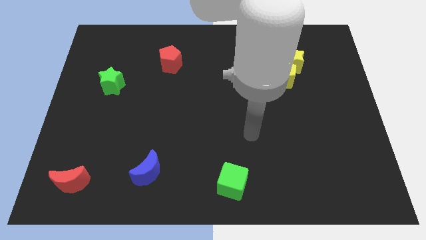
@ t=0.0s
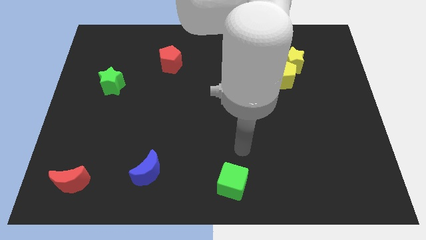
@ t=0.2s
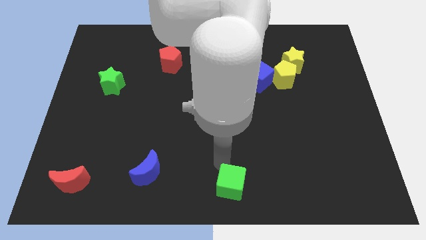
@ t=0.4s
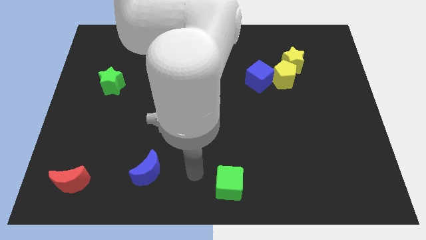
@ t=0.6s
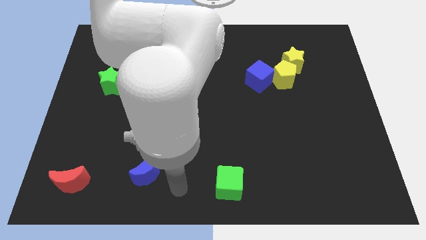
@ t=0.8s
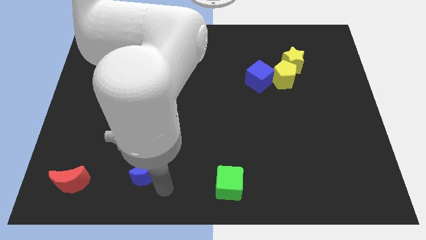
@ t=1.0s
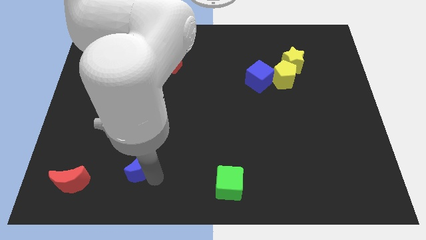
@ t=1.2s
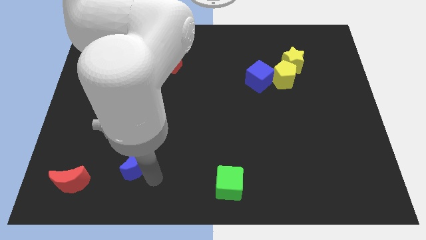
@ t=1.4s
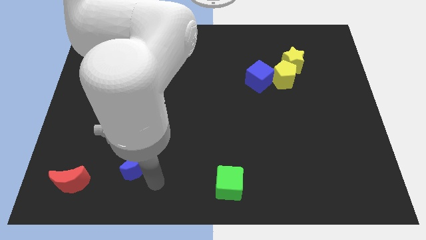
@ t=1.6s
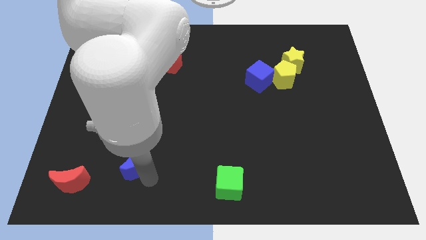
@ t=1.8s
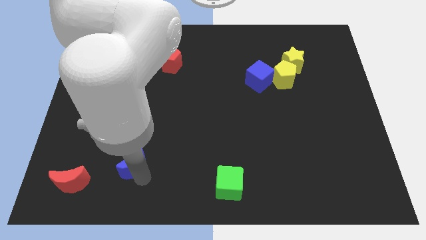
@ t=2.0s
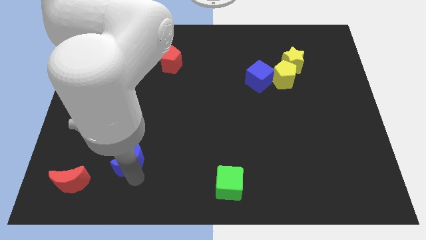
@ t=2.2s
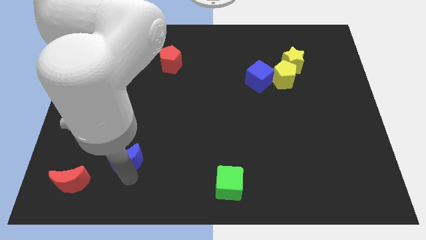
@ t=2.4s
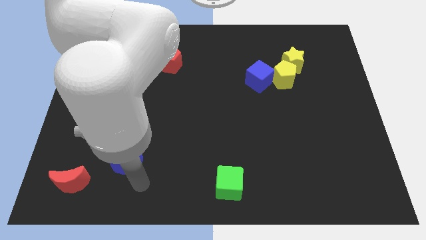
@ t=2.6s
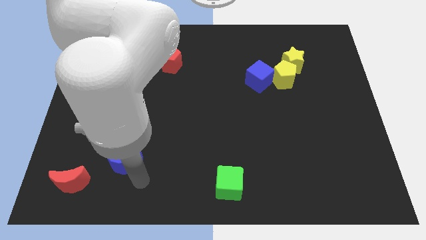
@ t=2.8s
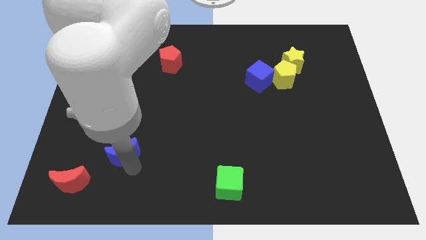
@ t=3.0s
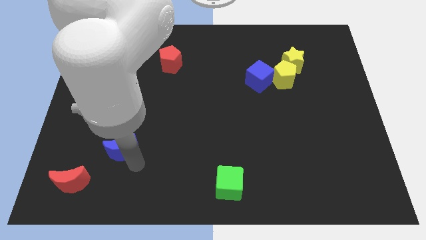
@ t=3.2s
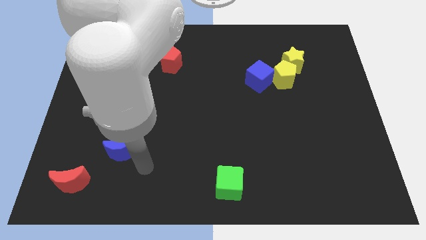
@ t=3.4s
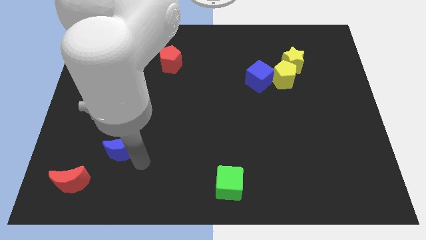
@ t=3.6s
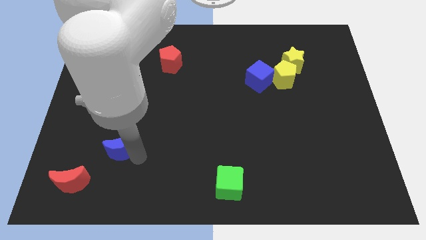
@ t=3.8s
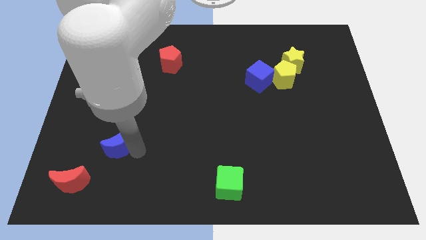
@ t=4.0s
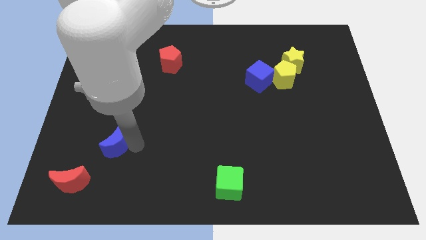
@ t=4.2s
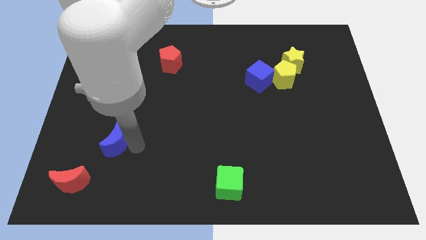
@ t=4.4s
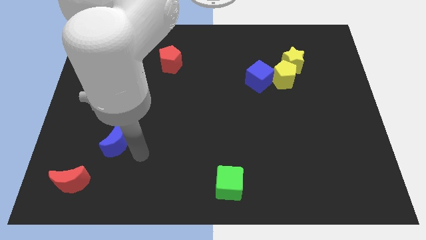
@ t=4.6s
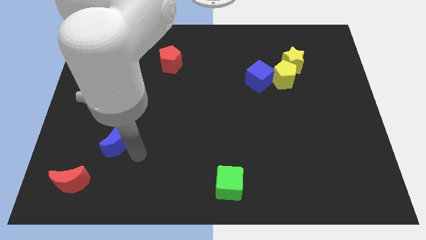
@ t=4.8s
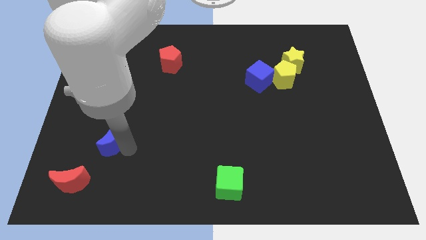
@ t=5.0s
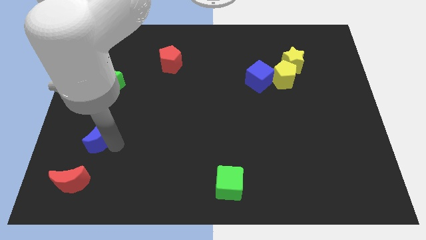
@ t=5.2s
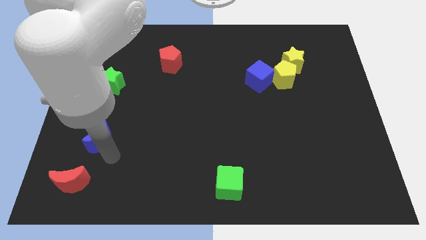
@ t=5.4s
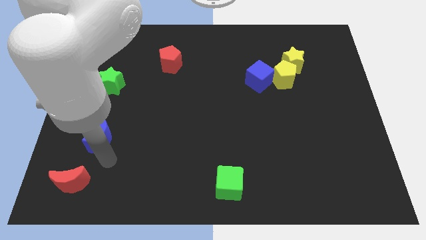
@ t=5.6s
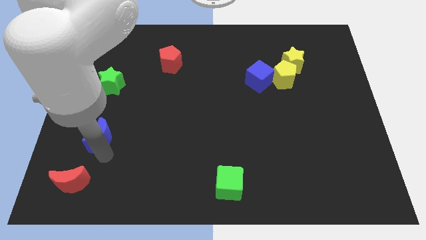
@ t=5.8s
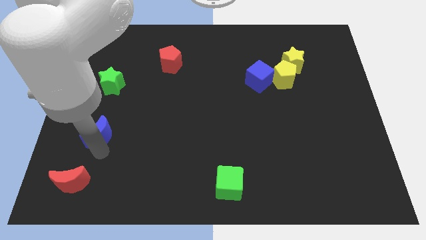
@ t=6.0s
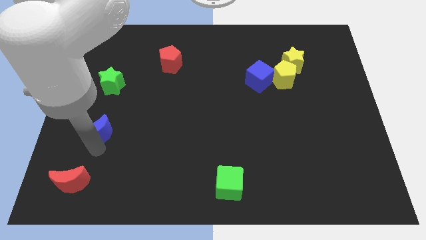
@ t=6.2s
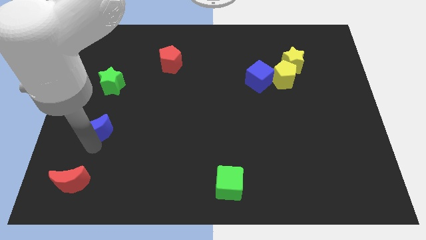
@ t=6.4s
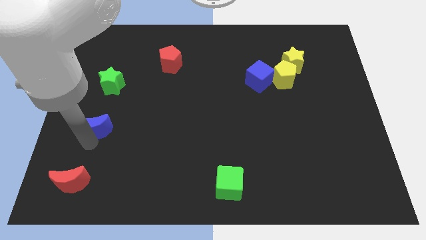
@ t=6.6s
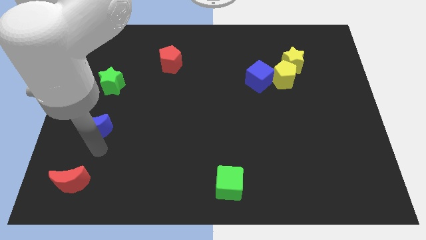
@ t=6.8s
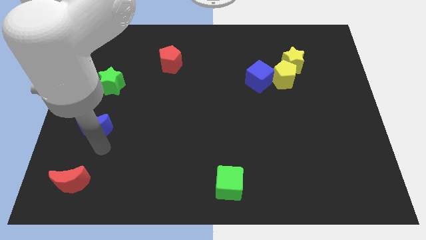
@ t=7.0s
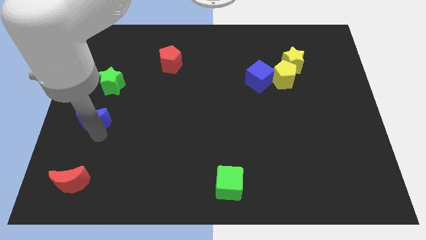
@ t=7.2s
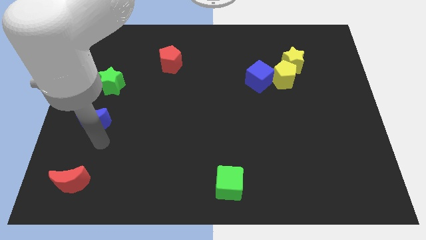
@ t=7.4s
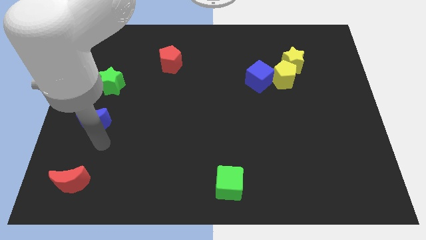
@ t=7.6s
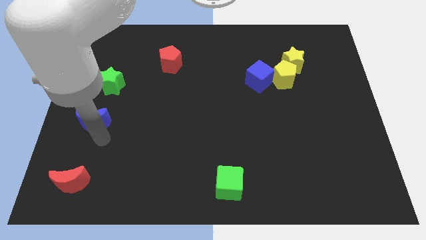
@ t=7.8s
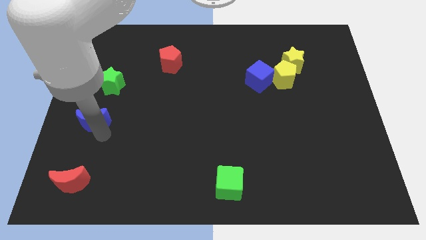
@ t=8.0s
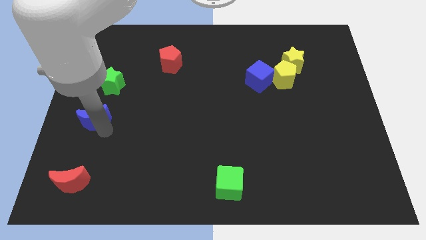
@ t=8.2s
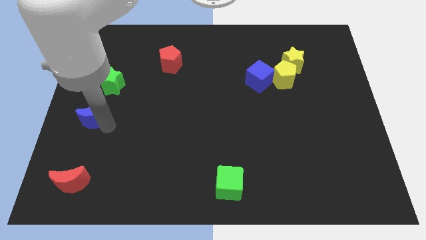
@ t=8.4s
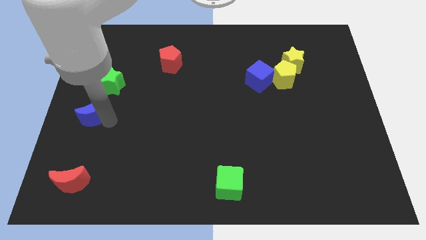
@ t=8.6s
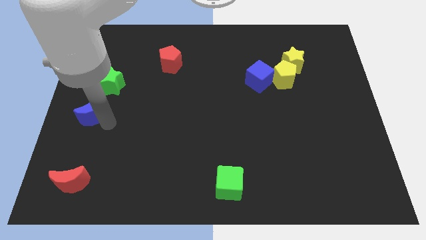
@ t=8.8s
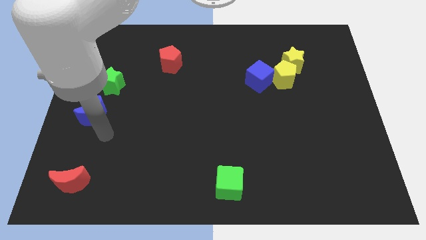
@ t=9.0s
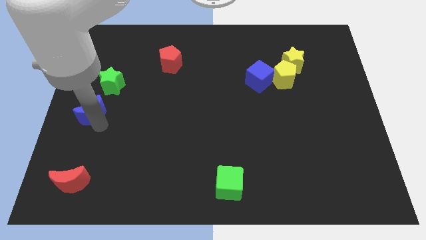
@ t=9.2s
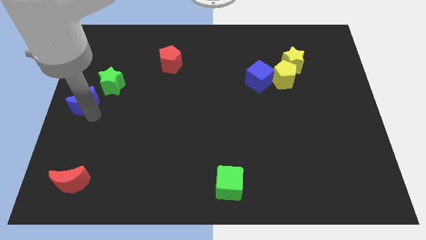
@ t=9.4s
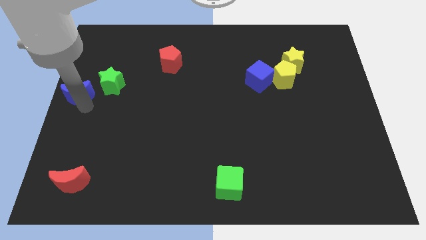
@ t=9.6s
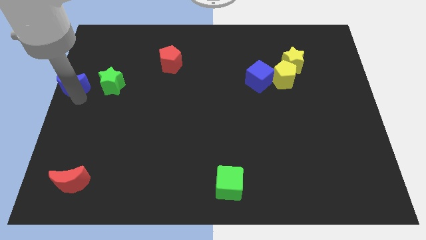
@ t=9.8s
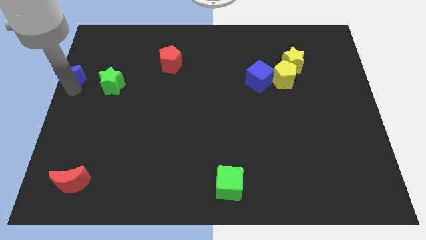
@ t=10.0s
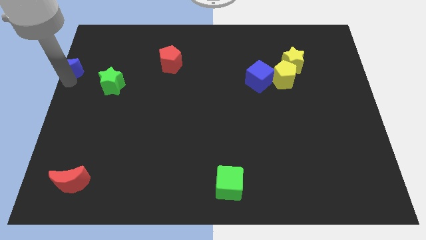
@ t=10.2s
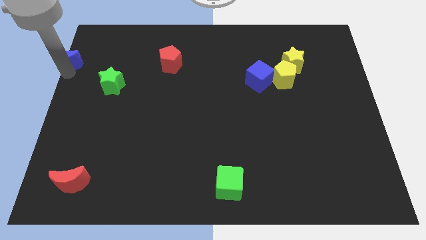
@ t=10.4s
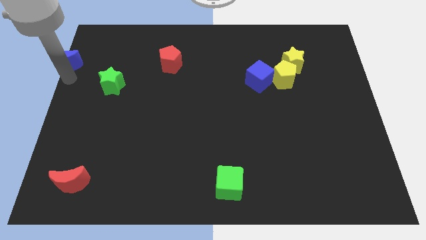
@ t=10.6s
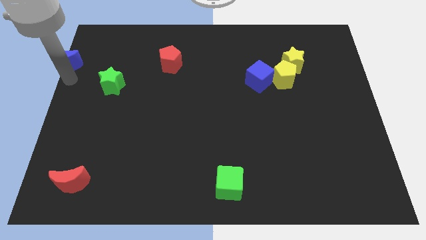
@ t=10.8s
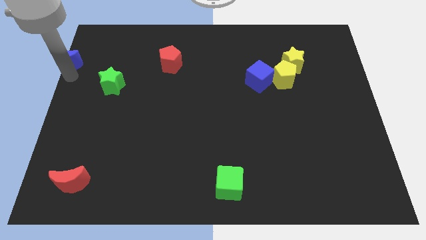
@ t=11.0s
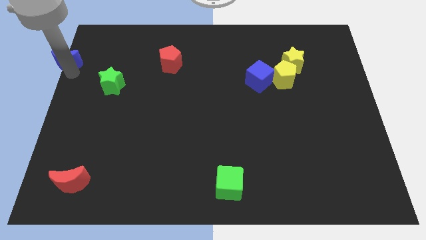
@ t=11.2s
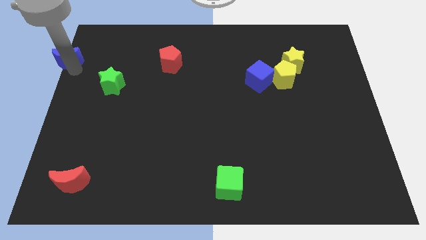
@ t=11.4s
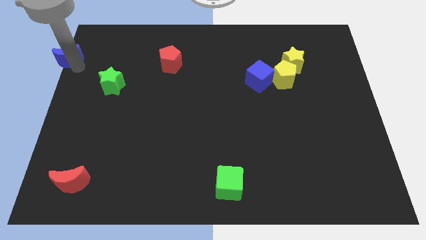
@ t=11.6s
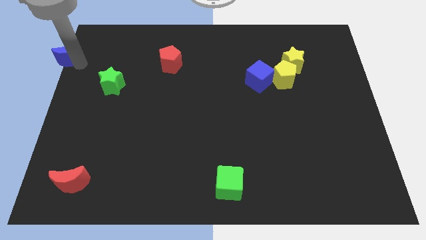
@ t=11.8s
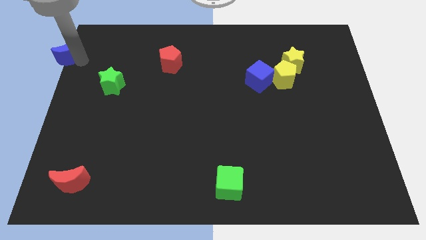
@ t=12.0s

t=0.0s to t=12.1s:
put the blue moon to the top left

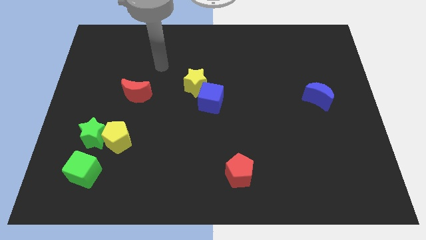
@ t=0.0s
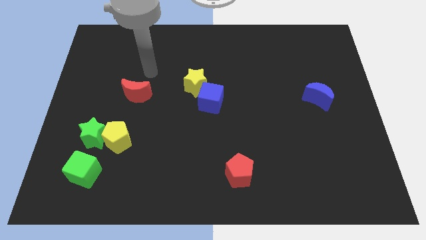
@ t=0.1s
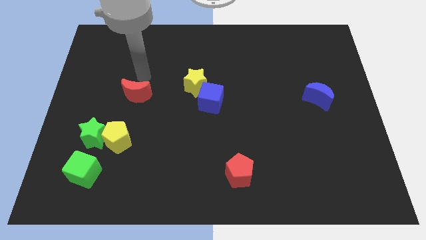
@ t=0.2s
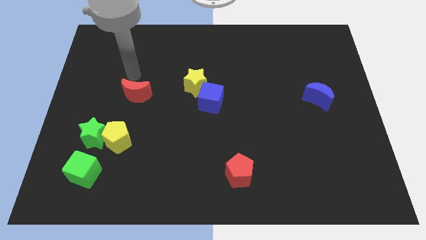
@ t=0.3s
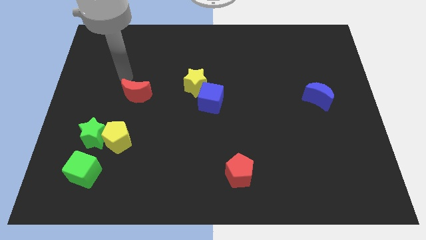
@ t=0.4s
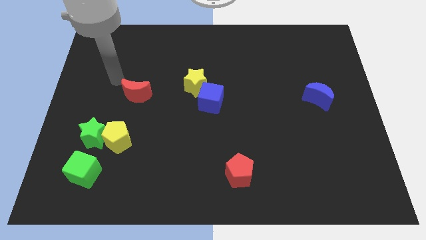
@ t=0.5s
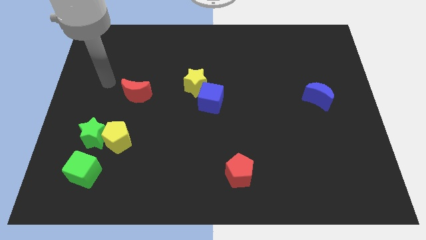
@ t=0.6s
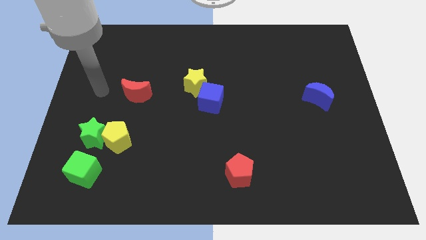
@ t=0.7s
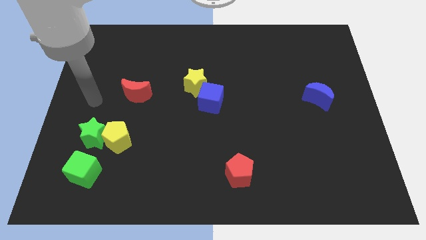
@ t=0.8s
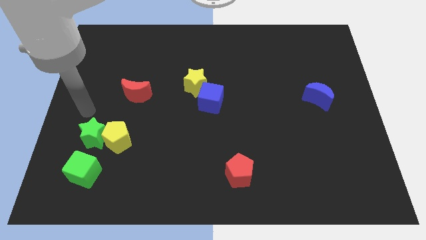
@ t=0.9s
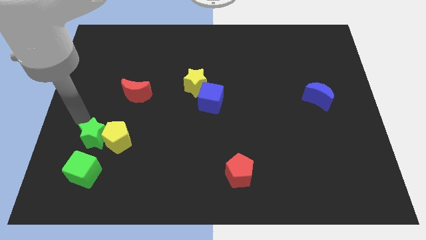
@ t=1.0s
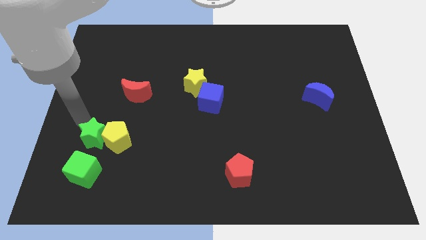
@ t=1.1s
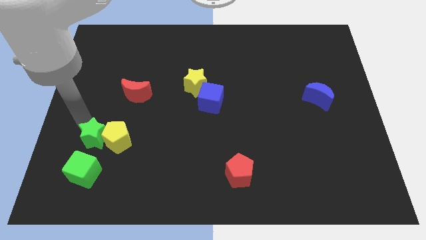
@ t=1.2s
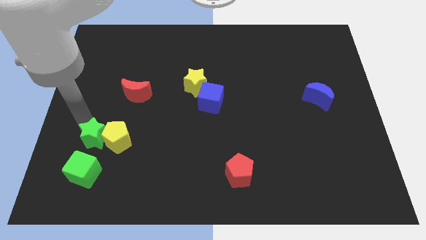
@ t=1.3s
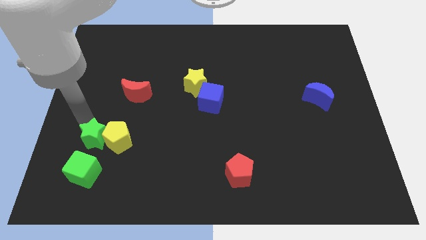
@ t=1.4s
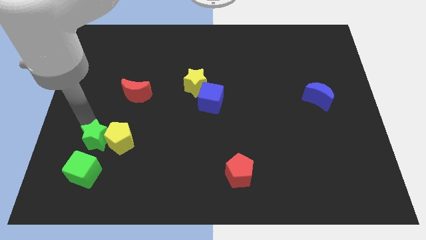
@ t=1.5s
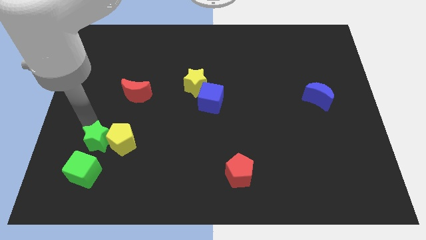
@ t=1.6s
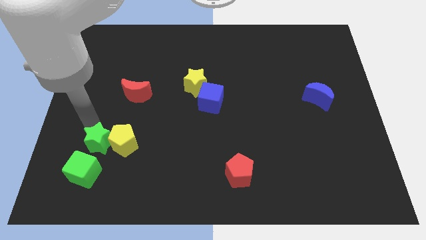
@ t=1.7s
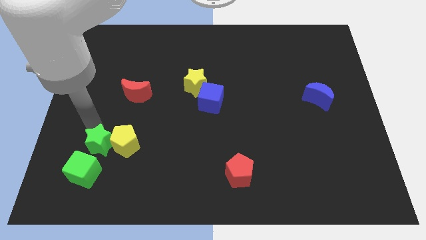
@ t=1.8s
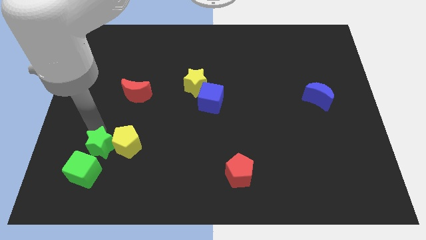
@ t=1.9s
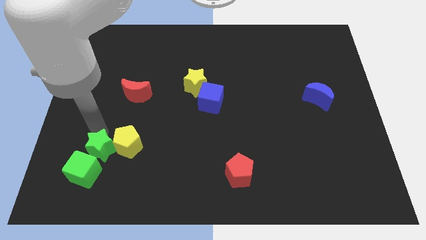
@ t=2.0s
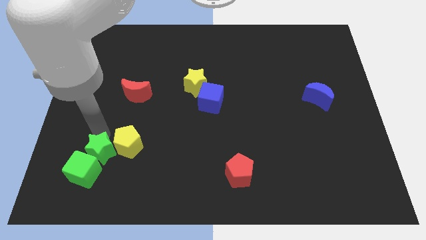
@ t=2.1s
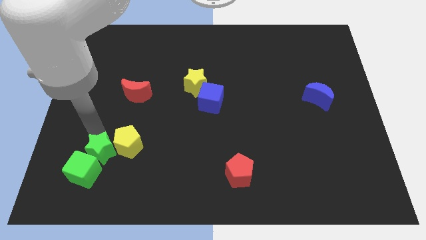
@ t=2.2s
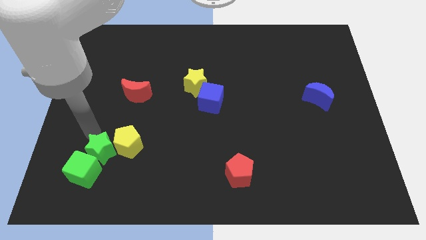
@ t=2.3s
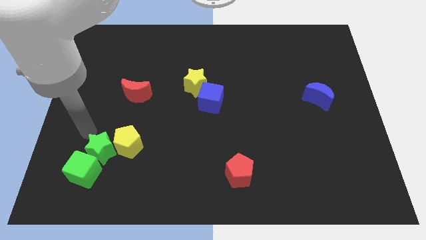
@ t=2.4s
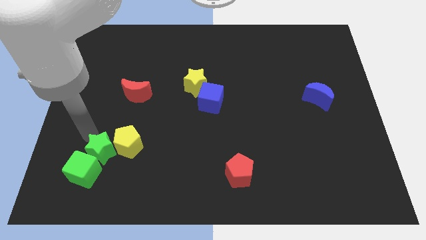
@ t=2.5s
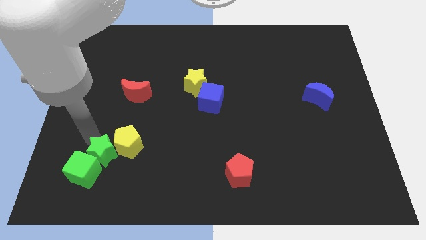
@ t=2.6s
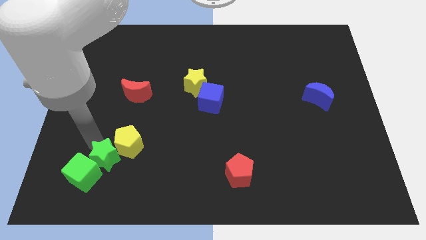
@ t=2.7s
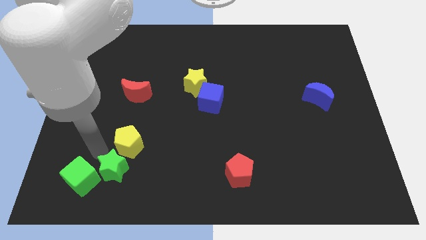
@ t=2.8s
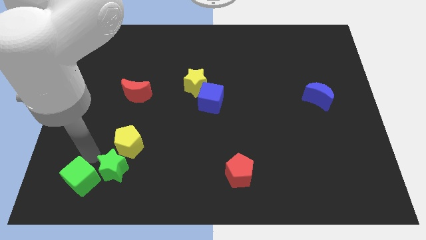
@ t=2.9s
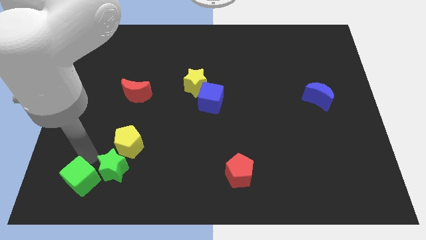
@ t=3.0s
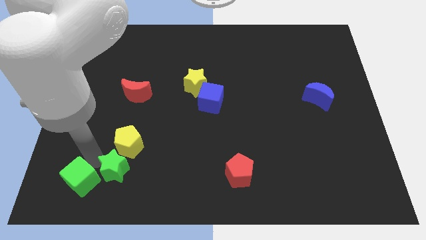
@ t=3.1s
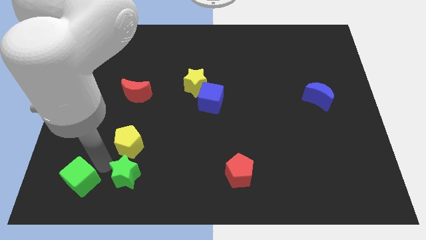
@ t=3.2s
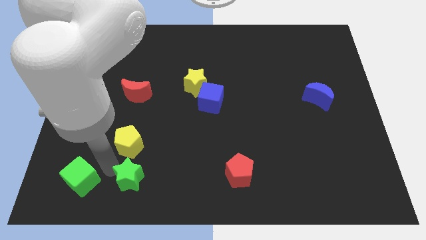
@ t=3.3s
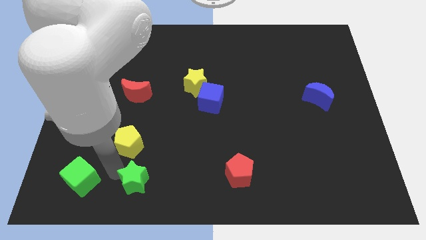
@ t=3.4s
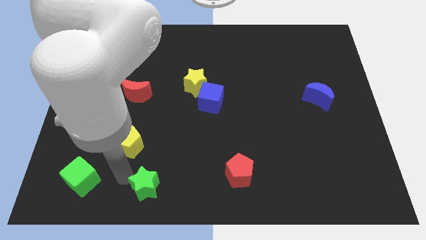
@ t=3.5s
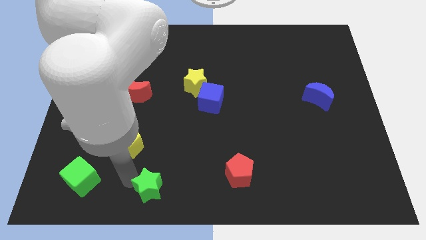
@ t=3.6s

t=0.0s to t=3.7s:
move the green star to the bottom side
